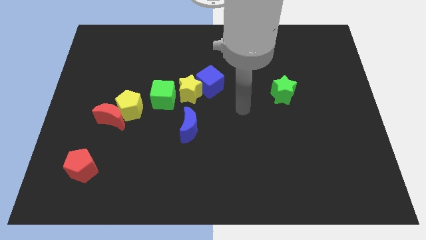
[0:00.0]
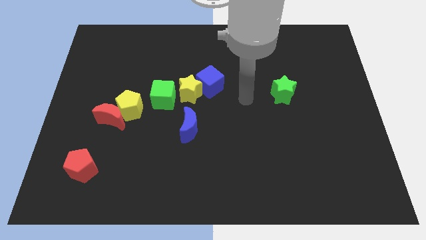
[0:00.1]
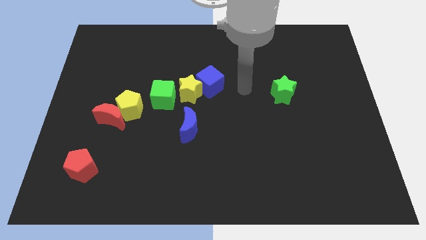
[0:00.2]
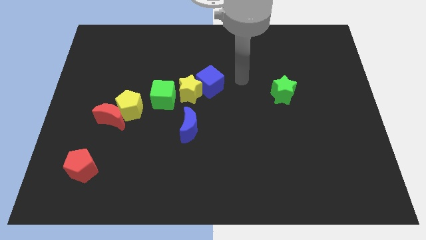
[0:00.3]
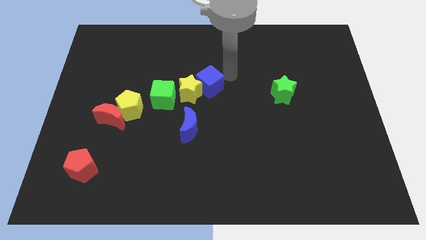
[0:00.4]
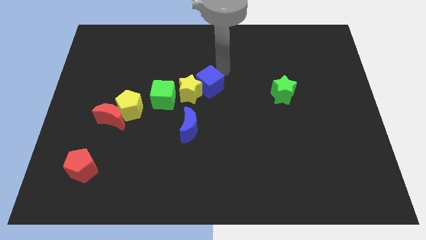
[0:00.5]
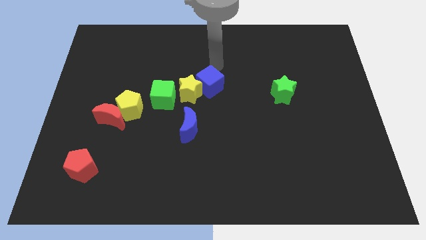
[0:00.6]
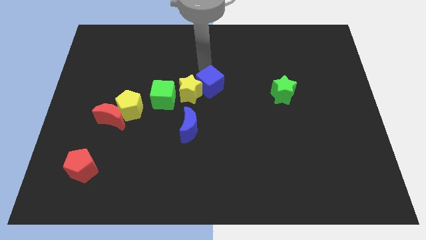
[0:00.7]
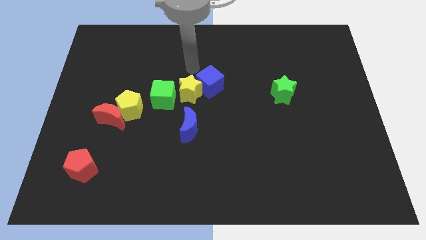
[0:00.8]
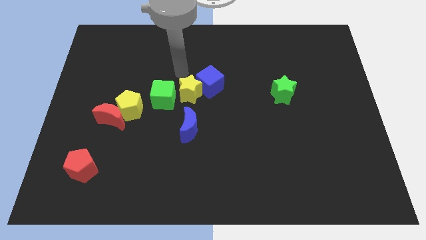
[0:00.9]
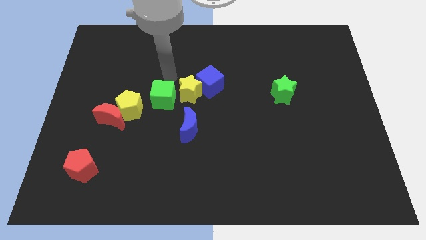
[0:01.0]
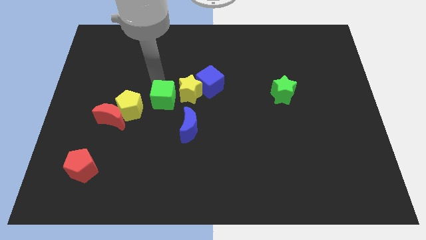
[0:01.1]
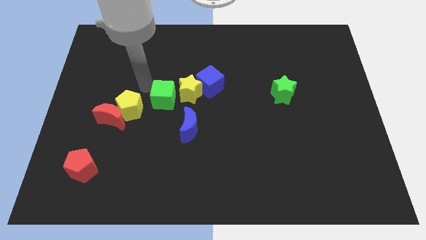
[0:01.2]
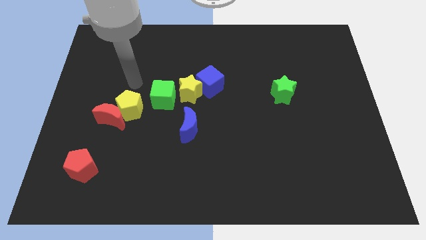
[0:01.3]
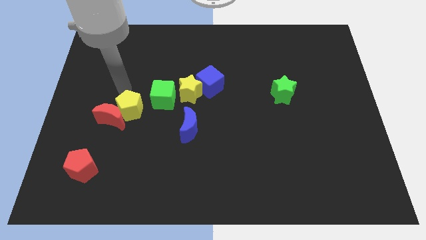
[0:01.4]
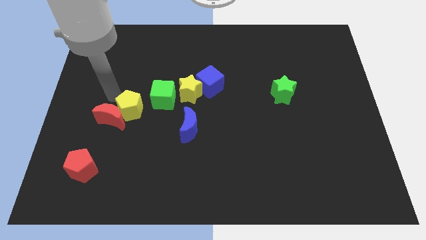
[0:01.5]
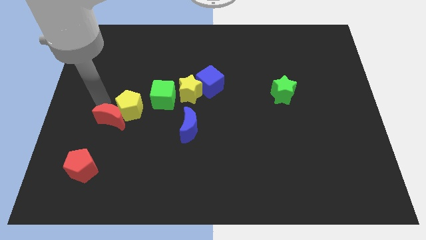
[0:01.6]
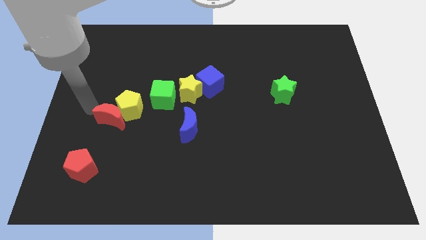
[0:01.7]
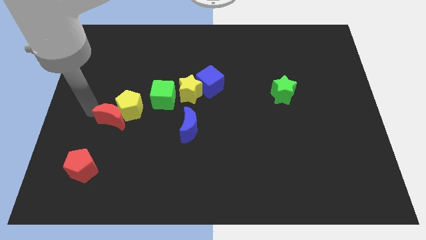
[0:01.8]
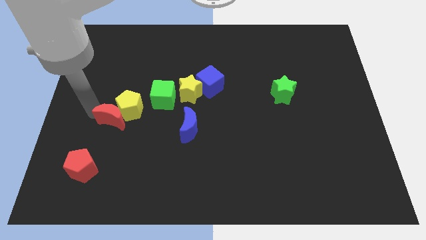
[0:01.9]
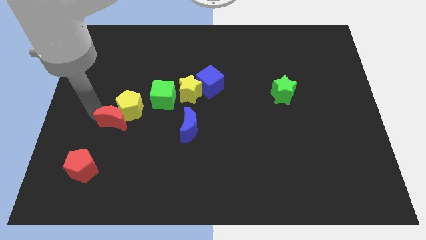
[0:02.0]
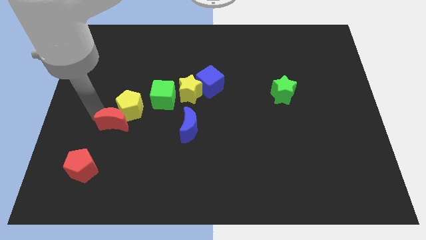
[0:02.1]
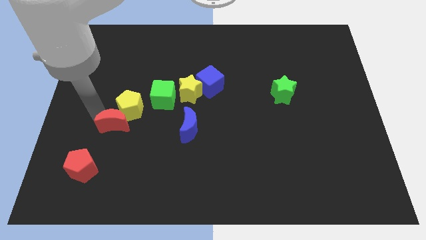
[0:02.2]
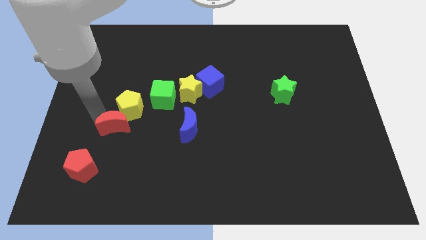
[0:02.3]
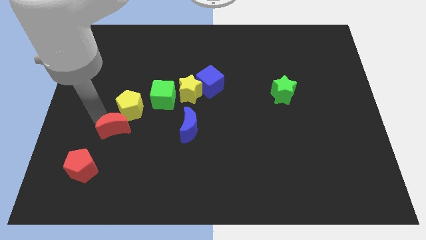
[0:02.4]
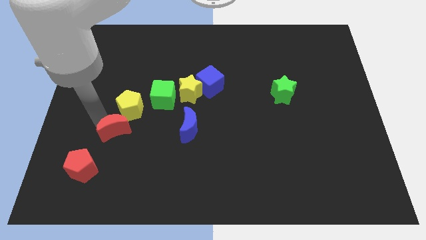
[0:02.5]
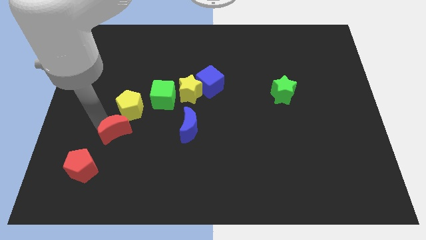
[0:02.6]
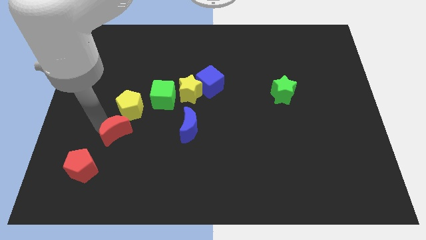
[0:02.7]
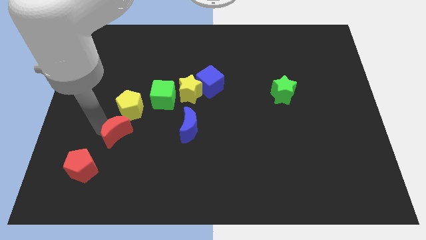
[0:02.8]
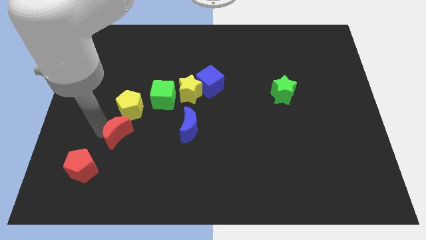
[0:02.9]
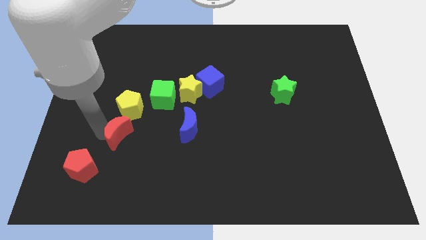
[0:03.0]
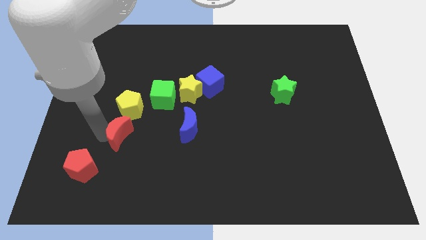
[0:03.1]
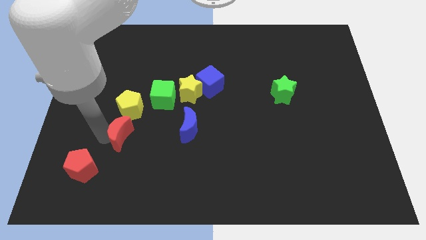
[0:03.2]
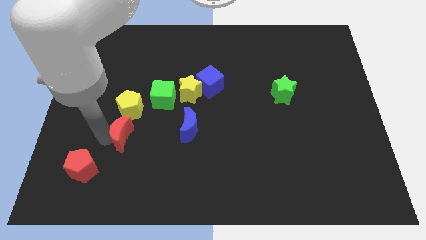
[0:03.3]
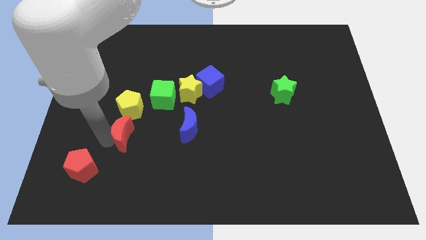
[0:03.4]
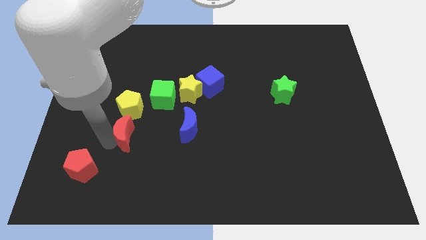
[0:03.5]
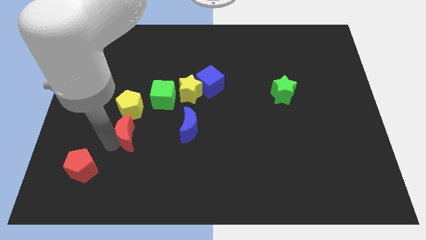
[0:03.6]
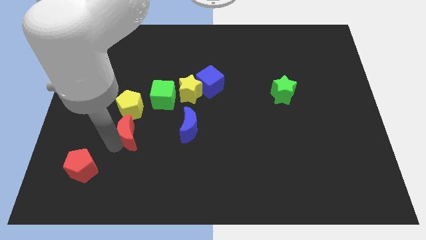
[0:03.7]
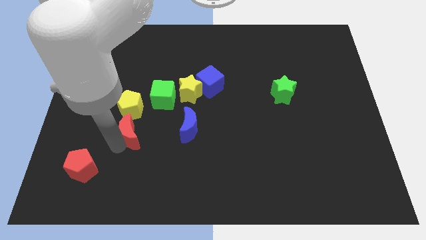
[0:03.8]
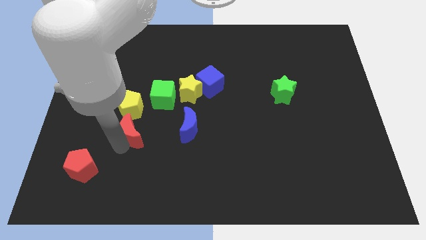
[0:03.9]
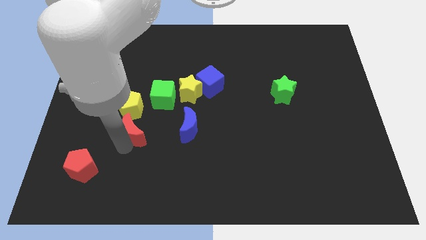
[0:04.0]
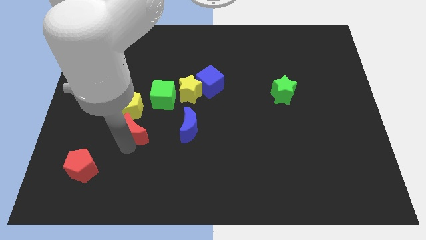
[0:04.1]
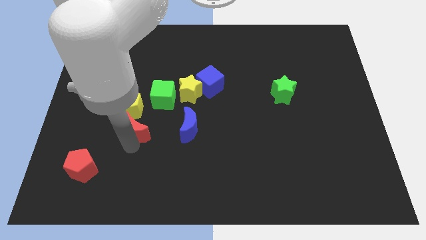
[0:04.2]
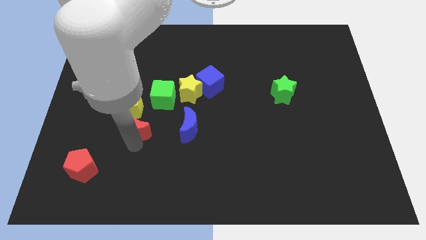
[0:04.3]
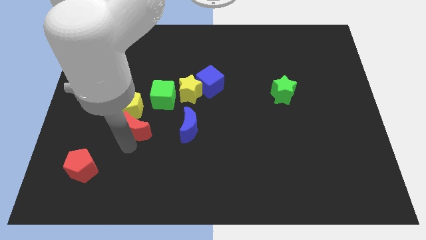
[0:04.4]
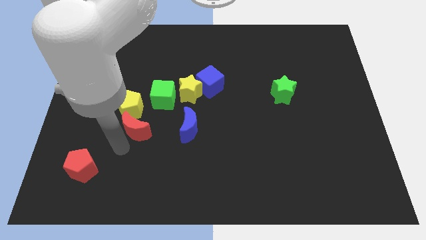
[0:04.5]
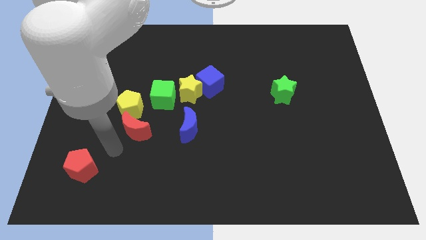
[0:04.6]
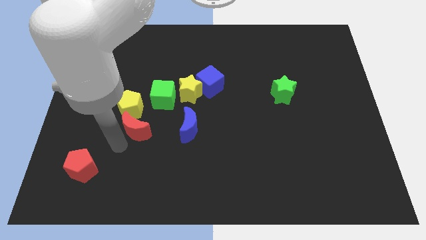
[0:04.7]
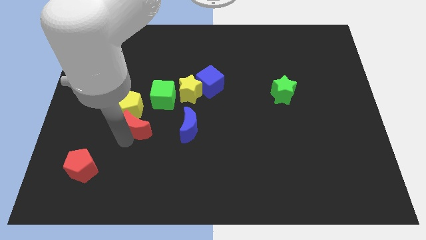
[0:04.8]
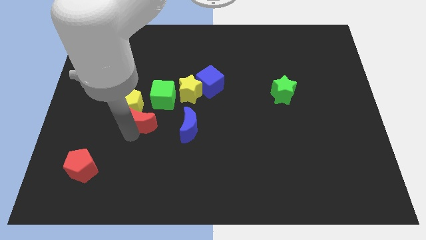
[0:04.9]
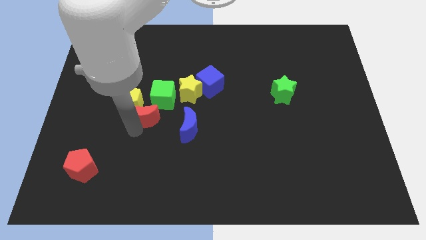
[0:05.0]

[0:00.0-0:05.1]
push the red moon just right of the yellow pentagon

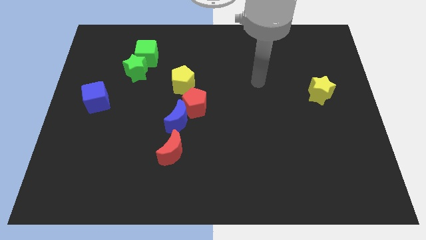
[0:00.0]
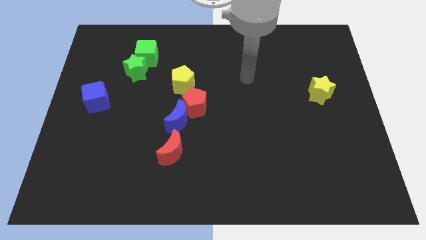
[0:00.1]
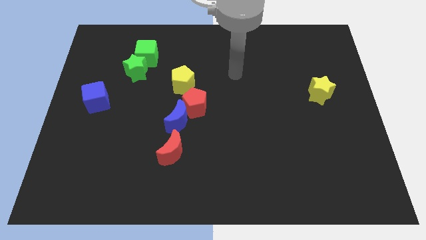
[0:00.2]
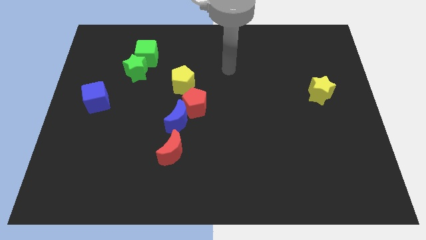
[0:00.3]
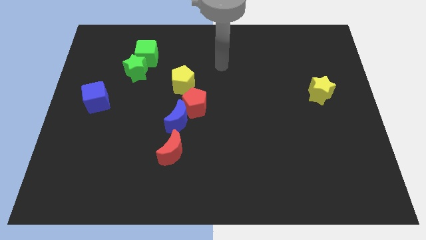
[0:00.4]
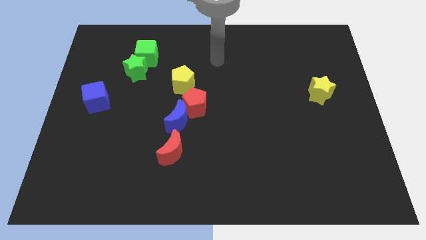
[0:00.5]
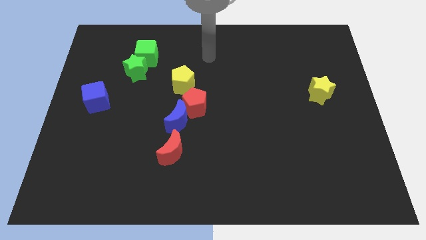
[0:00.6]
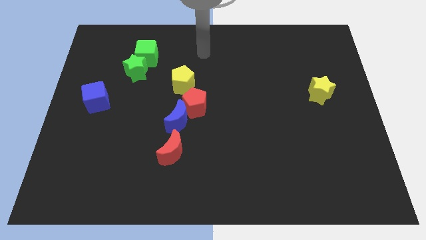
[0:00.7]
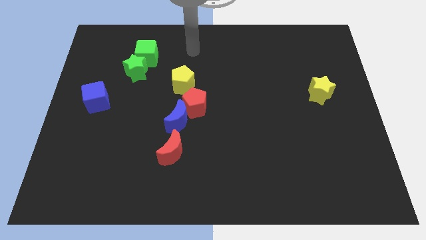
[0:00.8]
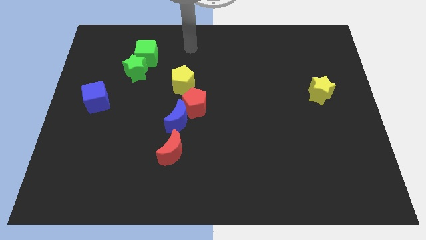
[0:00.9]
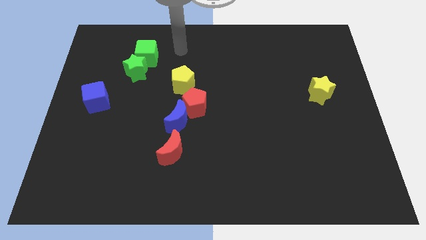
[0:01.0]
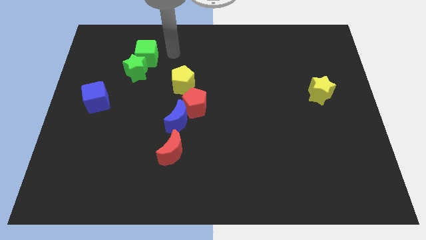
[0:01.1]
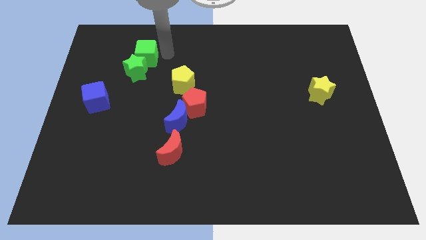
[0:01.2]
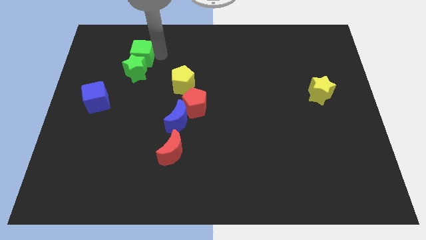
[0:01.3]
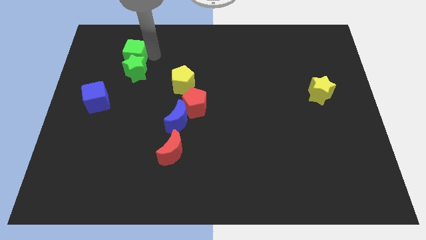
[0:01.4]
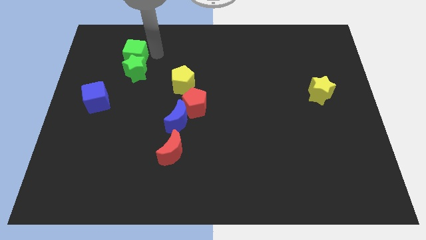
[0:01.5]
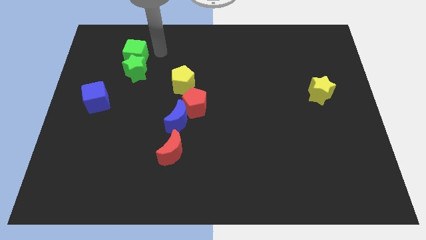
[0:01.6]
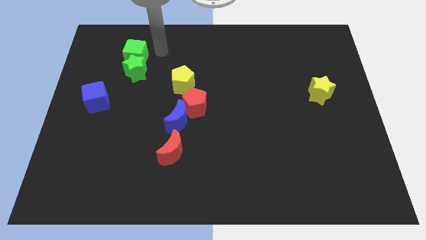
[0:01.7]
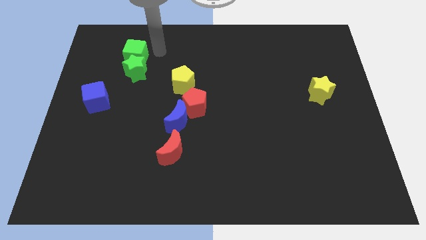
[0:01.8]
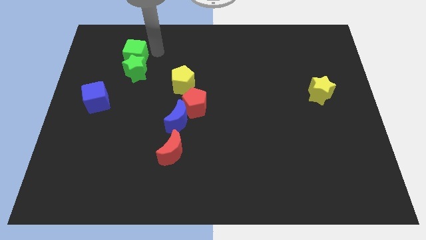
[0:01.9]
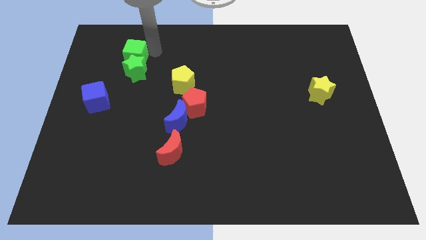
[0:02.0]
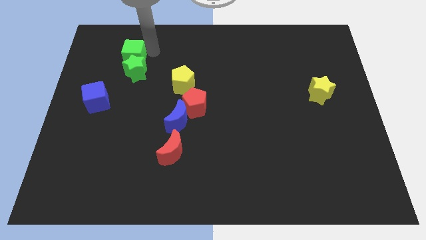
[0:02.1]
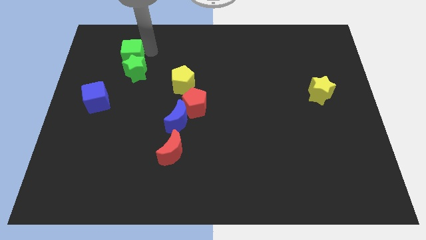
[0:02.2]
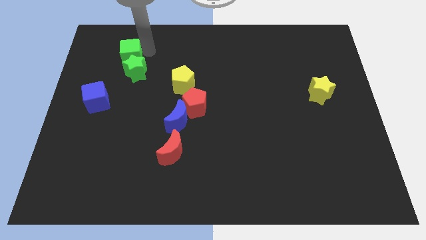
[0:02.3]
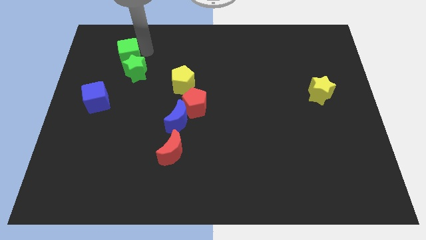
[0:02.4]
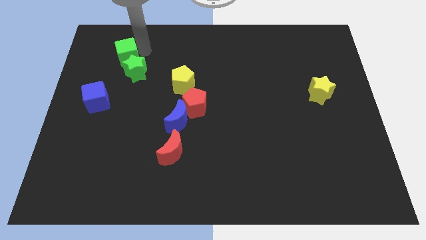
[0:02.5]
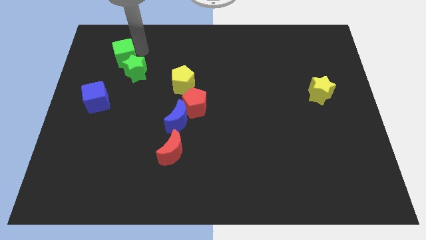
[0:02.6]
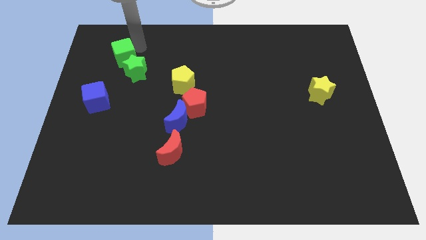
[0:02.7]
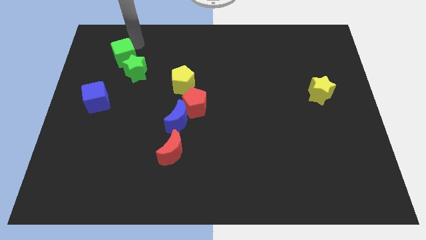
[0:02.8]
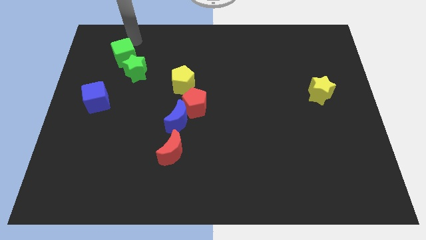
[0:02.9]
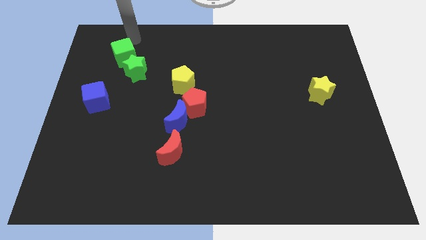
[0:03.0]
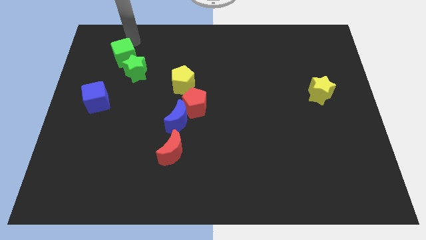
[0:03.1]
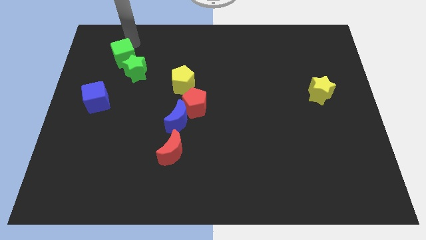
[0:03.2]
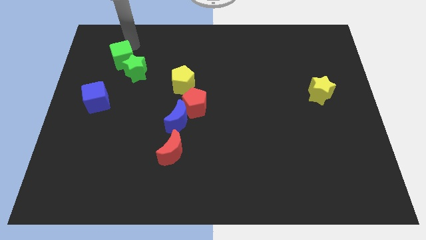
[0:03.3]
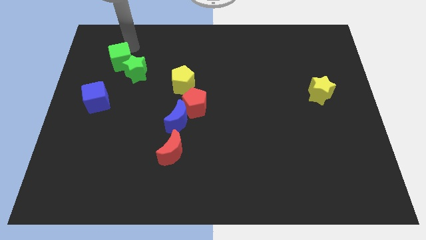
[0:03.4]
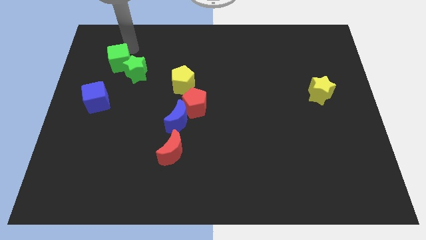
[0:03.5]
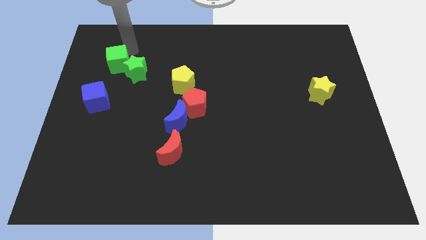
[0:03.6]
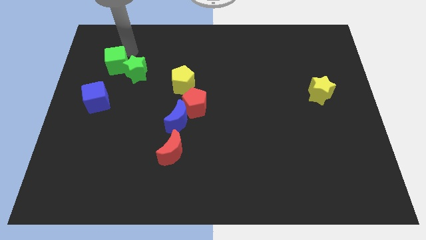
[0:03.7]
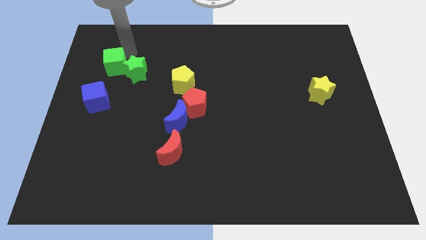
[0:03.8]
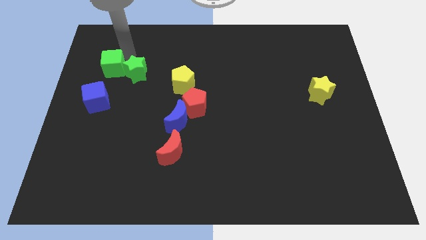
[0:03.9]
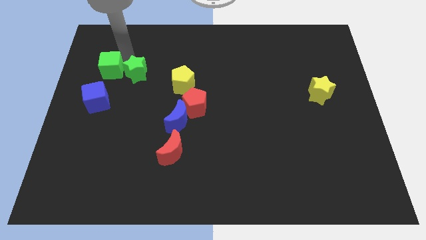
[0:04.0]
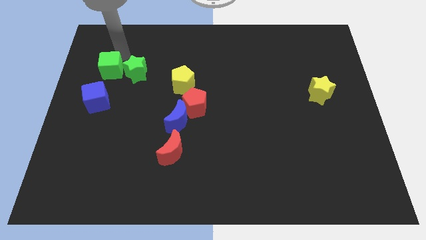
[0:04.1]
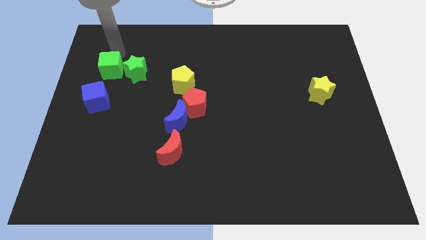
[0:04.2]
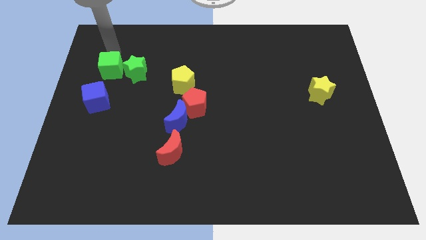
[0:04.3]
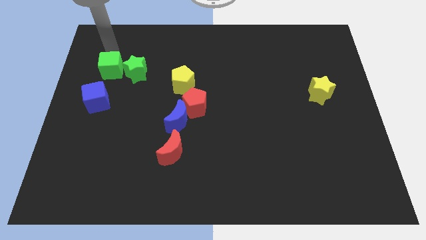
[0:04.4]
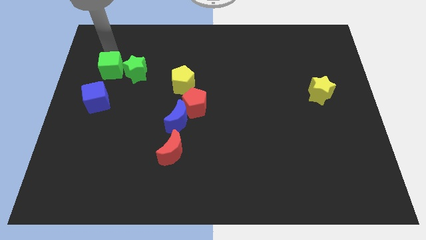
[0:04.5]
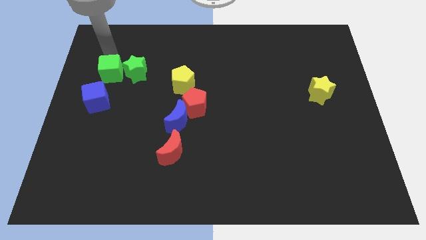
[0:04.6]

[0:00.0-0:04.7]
slide the green cube to the bottom left side of the green star
